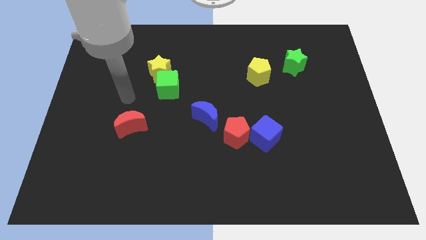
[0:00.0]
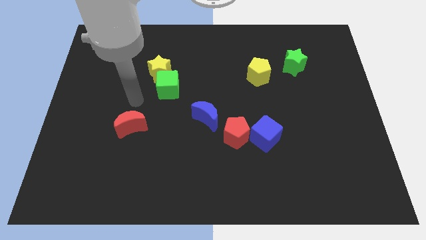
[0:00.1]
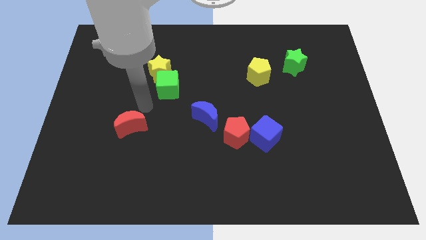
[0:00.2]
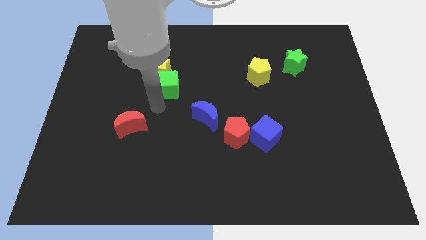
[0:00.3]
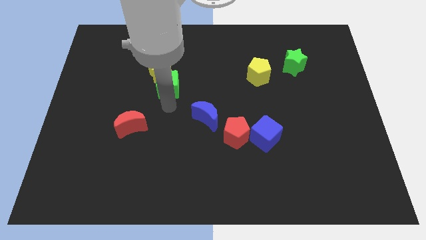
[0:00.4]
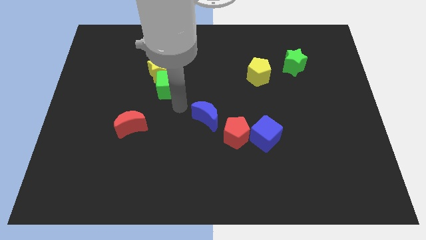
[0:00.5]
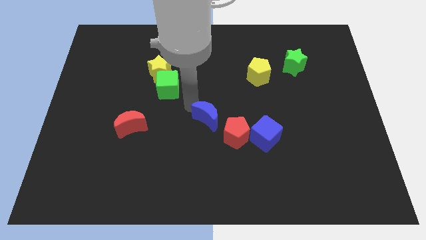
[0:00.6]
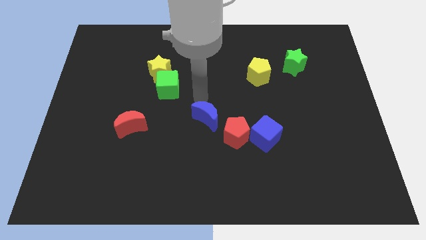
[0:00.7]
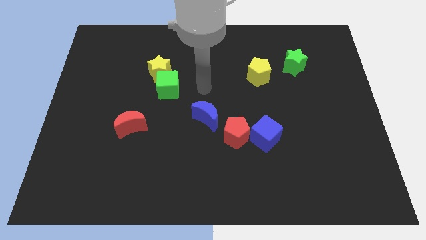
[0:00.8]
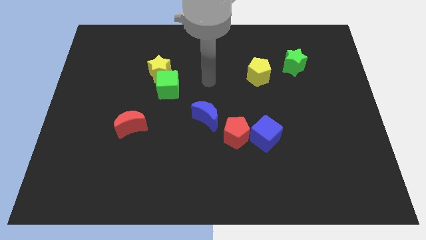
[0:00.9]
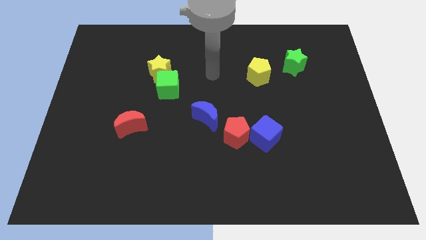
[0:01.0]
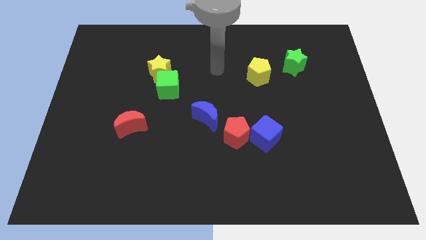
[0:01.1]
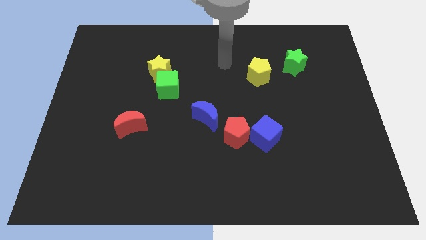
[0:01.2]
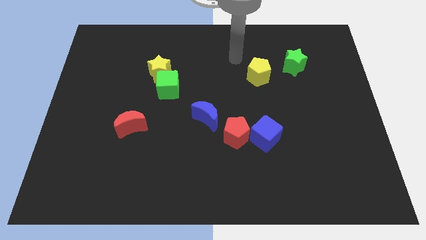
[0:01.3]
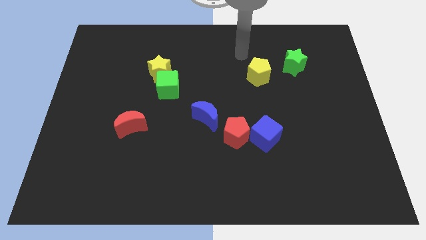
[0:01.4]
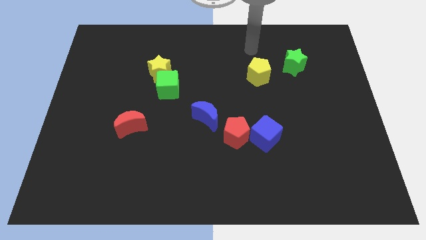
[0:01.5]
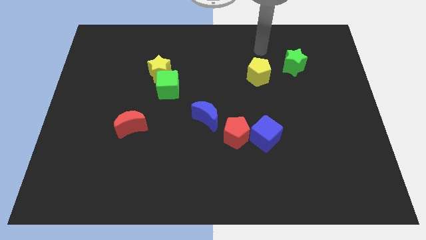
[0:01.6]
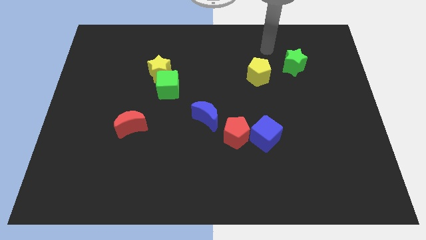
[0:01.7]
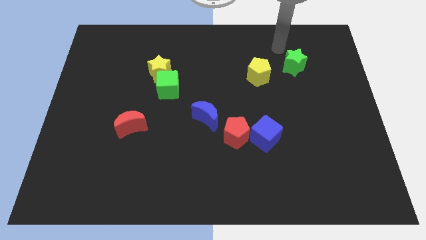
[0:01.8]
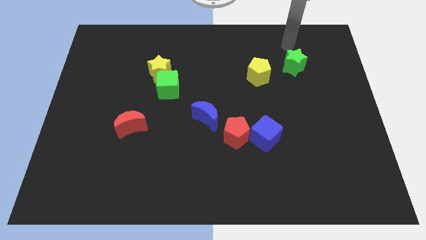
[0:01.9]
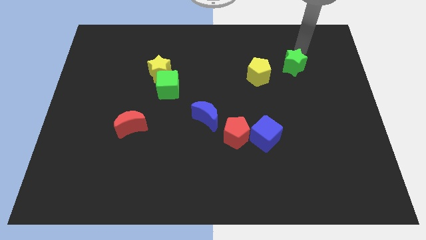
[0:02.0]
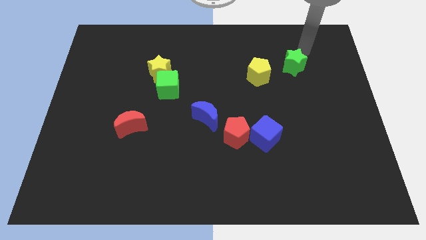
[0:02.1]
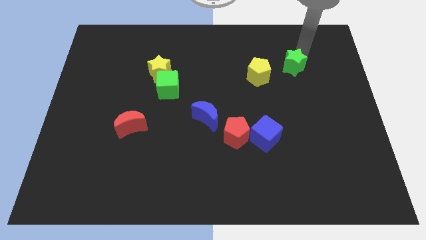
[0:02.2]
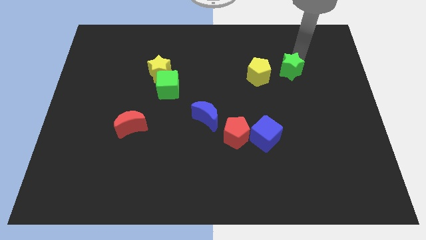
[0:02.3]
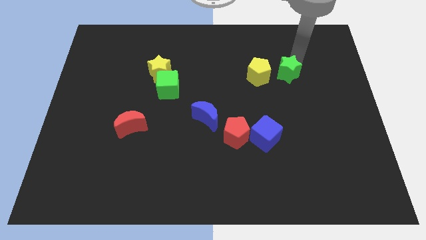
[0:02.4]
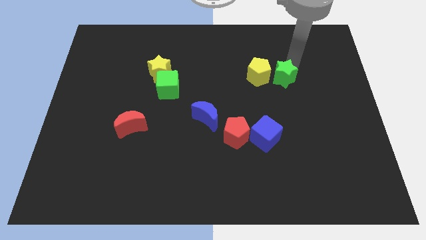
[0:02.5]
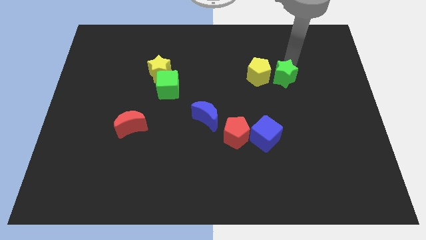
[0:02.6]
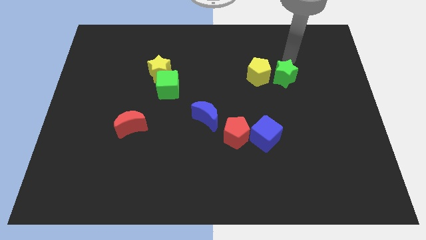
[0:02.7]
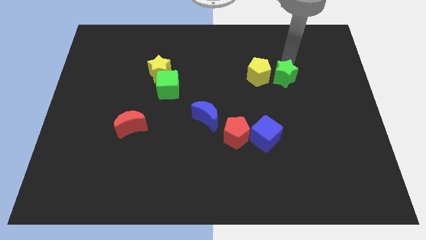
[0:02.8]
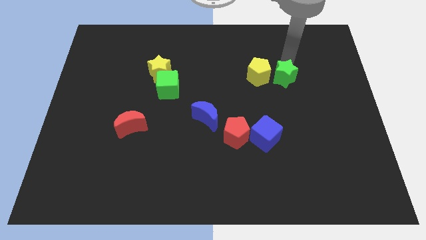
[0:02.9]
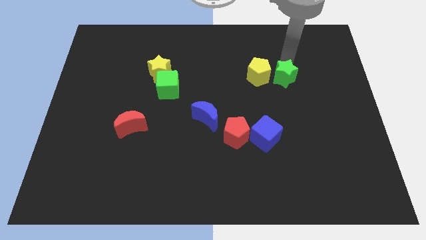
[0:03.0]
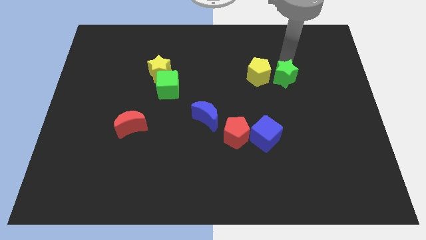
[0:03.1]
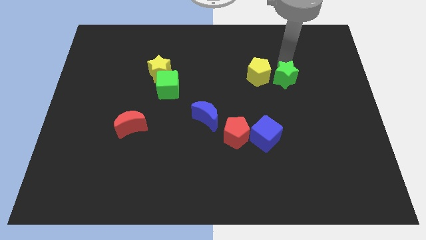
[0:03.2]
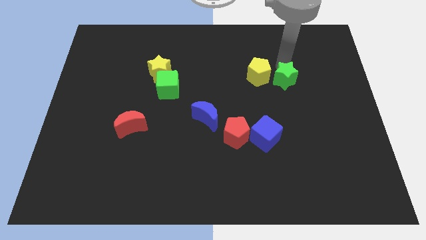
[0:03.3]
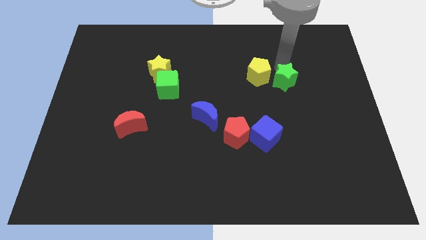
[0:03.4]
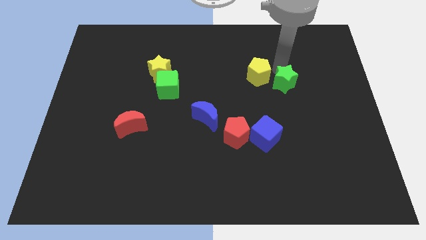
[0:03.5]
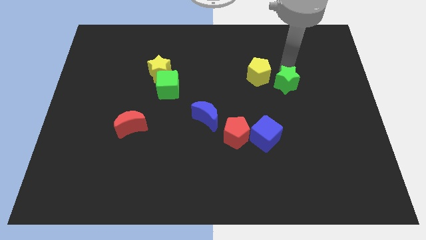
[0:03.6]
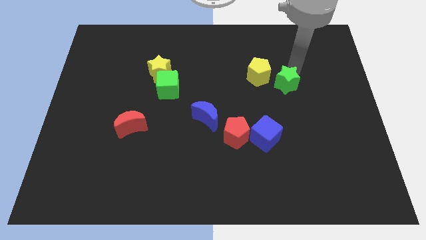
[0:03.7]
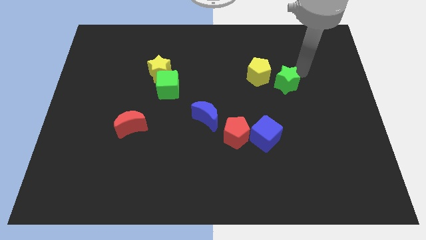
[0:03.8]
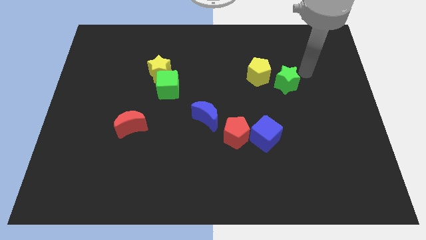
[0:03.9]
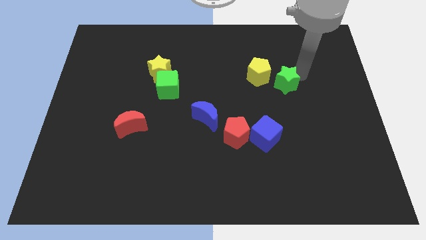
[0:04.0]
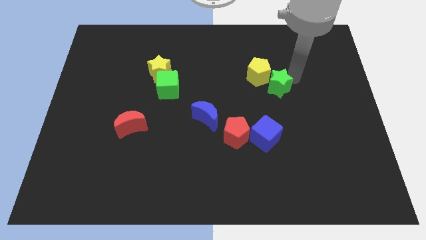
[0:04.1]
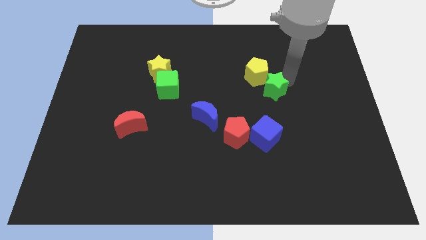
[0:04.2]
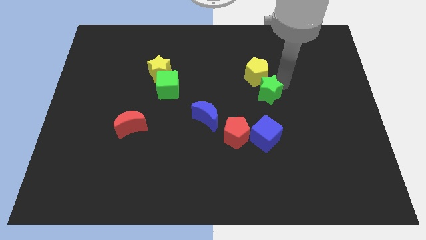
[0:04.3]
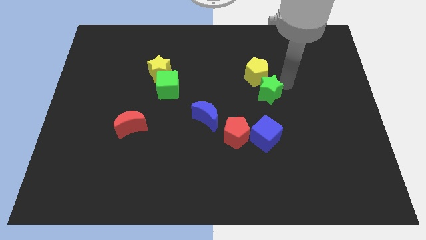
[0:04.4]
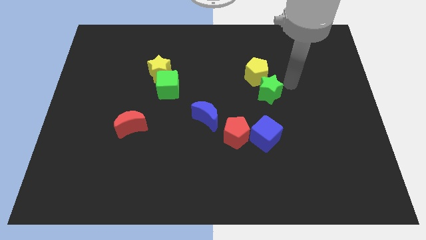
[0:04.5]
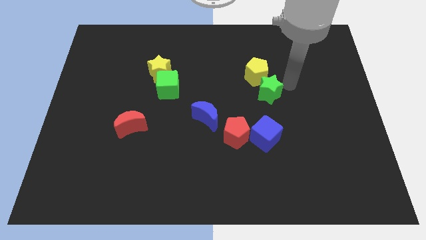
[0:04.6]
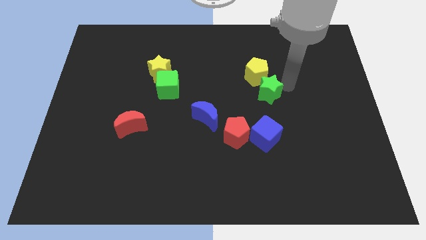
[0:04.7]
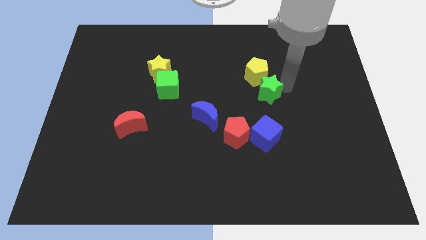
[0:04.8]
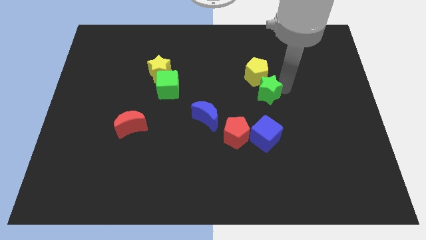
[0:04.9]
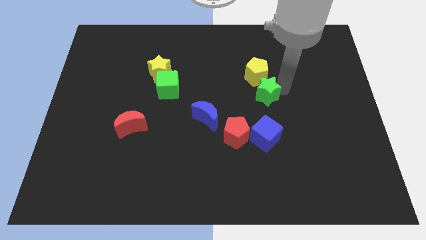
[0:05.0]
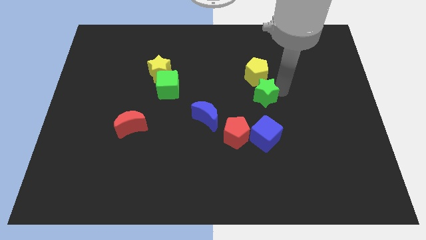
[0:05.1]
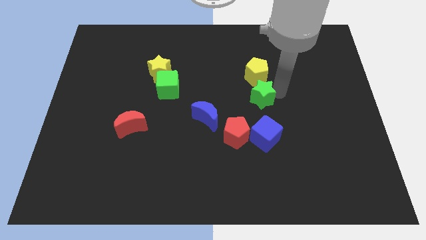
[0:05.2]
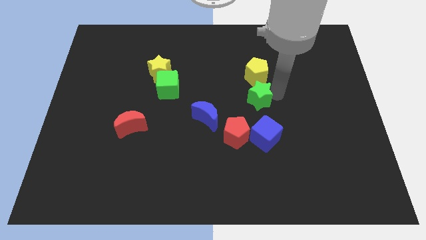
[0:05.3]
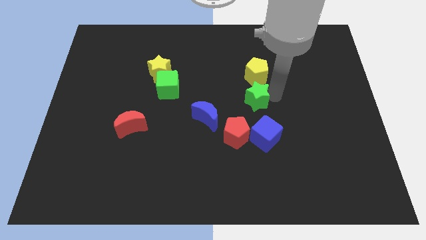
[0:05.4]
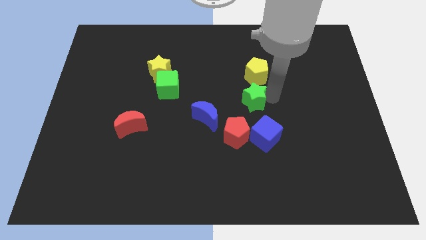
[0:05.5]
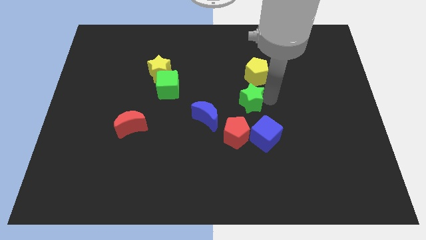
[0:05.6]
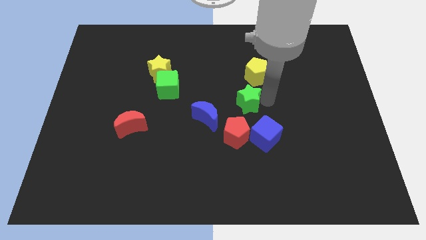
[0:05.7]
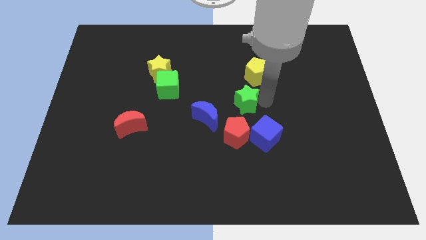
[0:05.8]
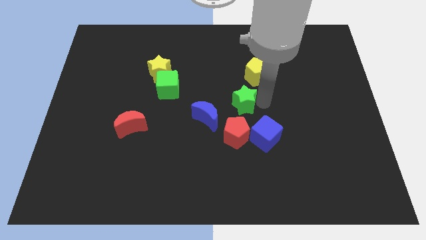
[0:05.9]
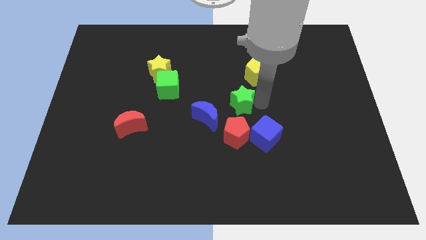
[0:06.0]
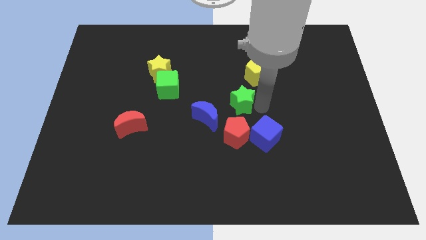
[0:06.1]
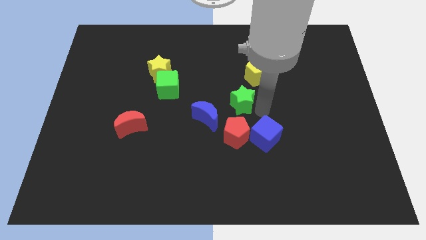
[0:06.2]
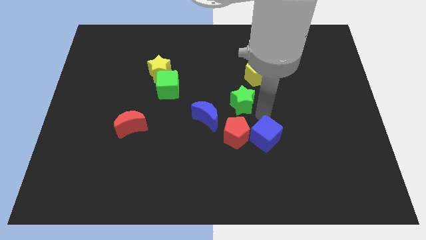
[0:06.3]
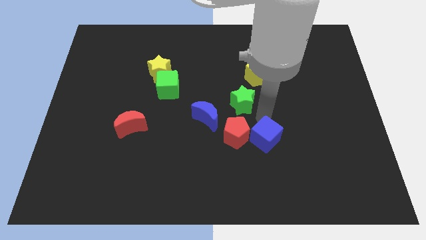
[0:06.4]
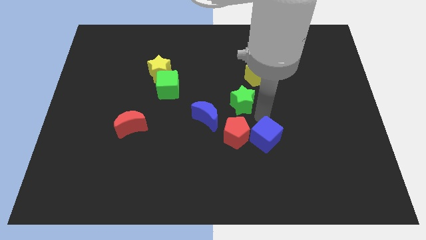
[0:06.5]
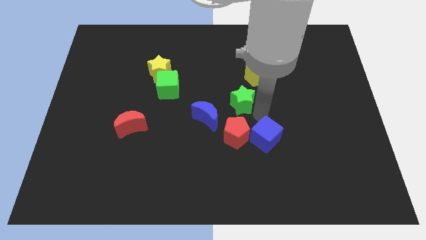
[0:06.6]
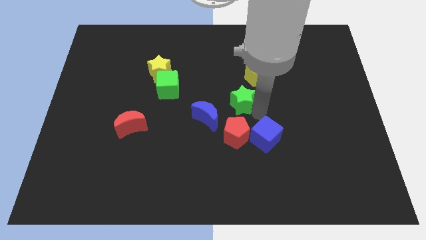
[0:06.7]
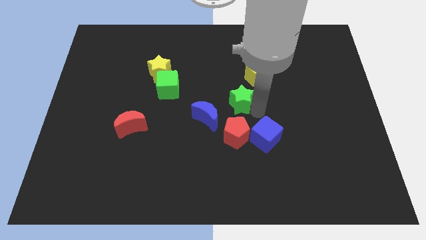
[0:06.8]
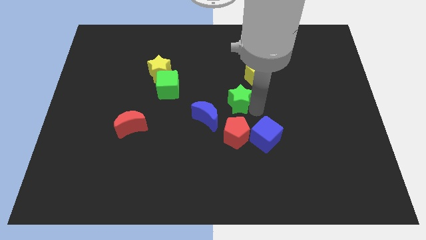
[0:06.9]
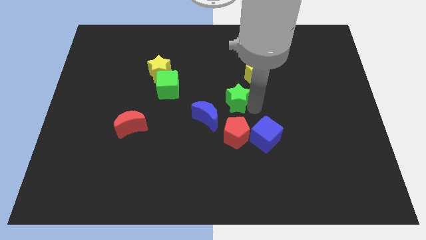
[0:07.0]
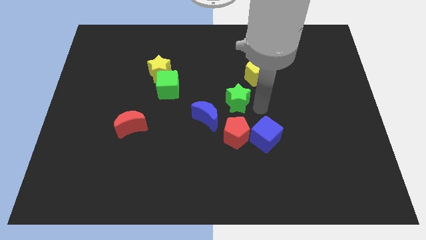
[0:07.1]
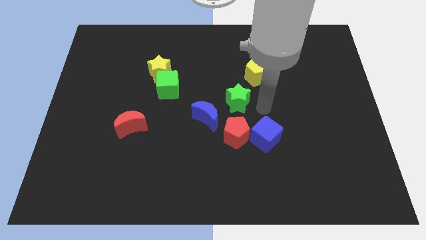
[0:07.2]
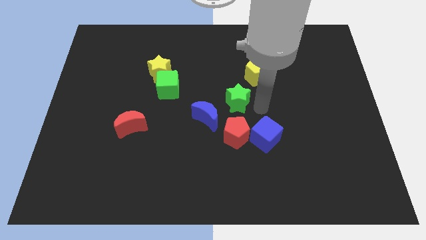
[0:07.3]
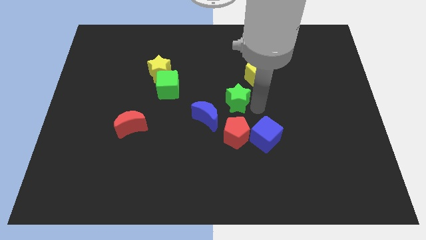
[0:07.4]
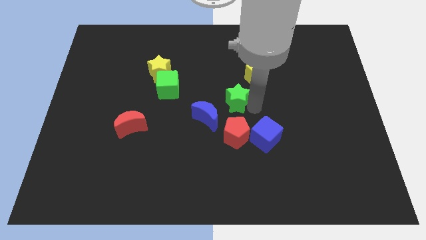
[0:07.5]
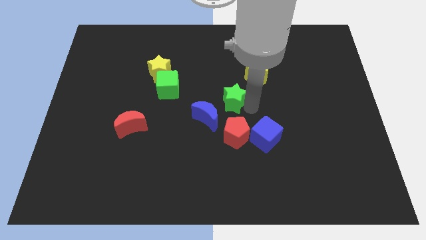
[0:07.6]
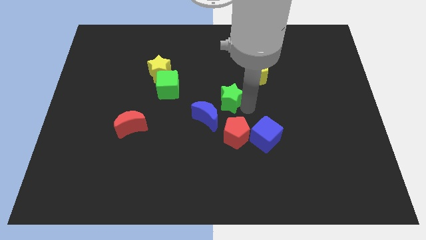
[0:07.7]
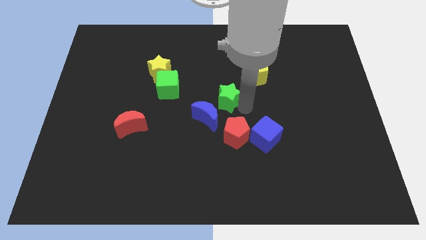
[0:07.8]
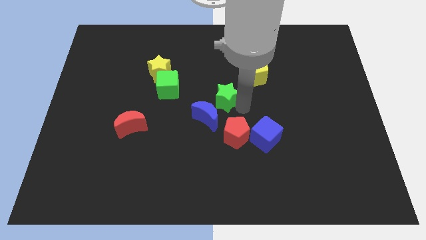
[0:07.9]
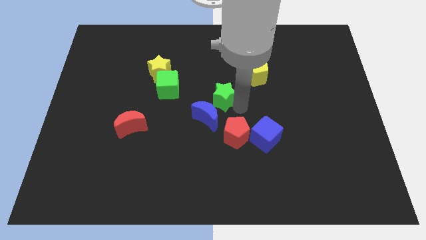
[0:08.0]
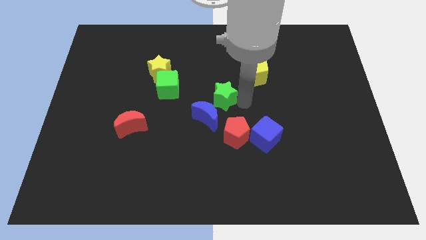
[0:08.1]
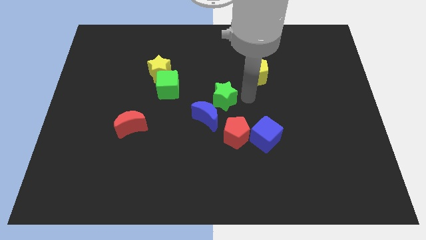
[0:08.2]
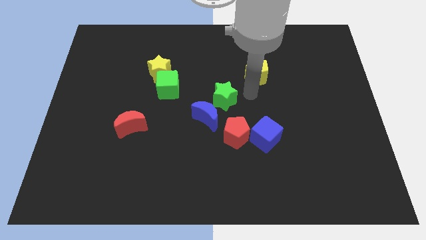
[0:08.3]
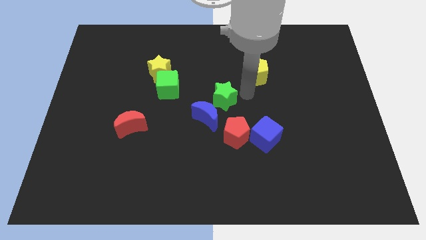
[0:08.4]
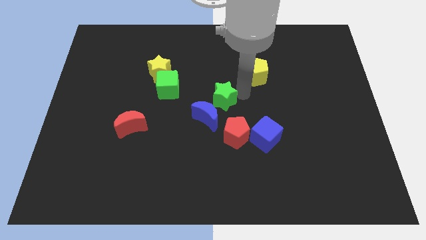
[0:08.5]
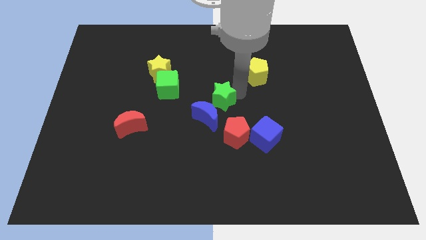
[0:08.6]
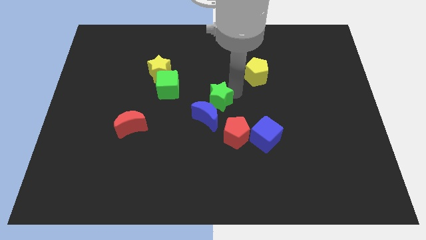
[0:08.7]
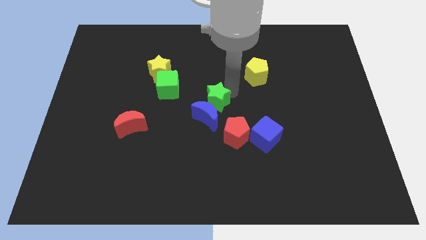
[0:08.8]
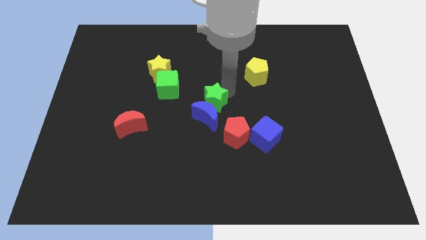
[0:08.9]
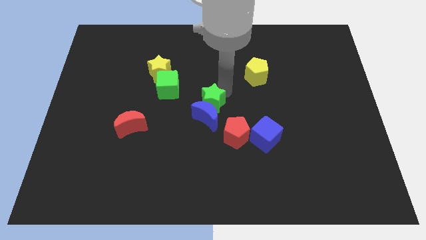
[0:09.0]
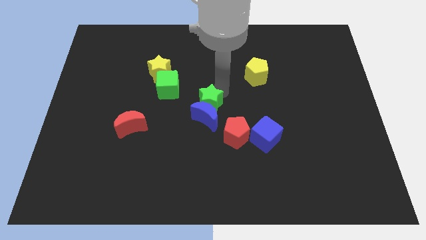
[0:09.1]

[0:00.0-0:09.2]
put the green star to the bottom right of the green cube
